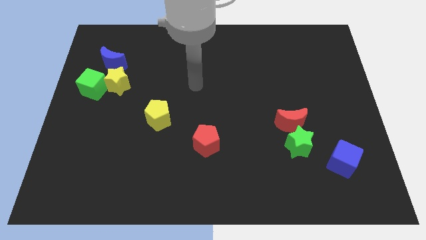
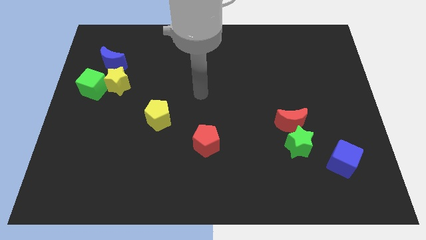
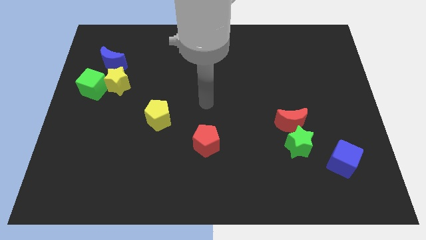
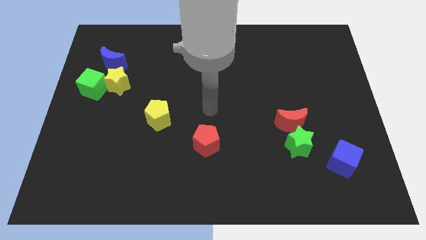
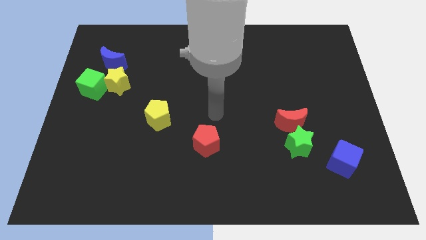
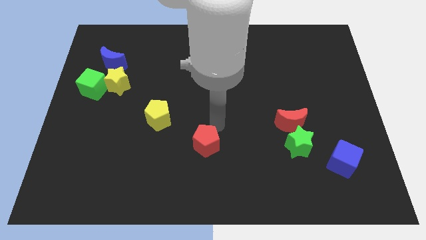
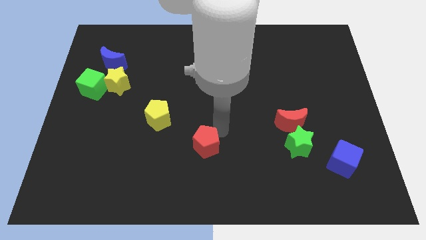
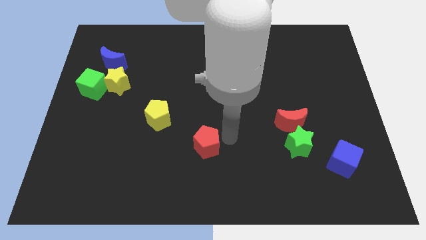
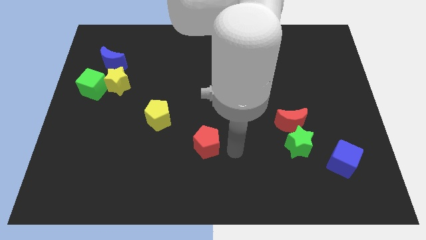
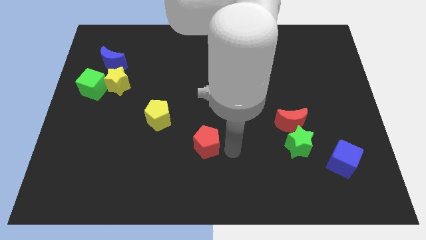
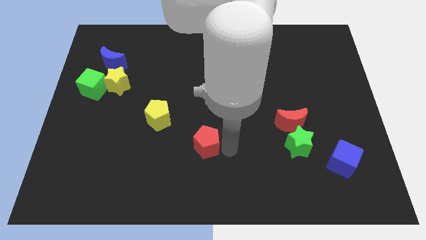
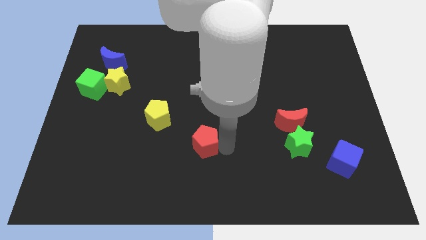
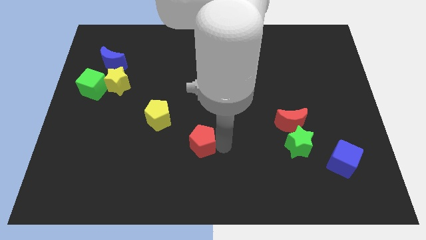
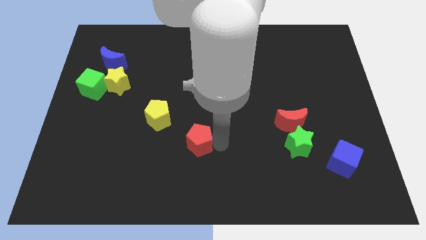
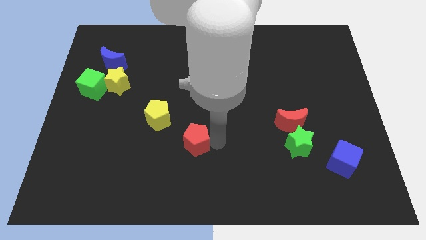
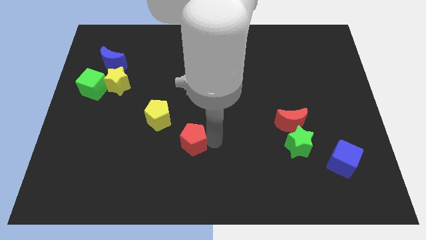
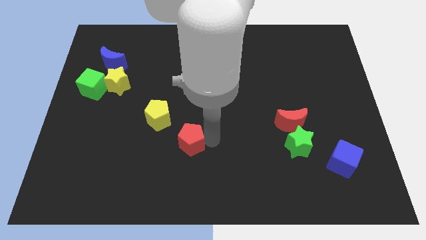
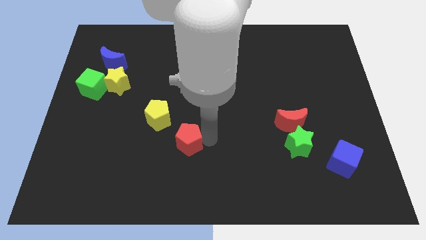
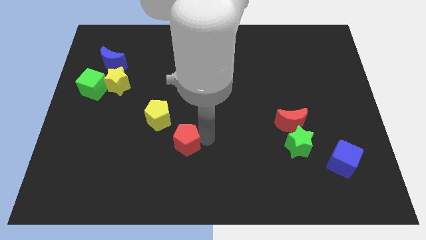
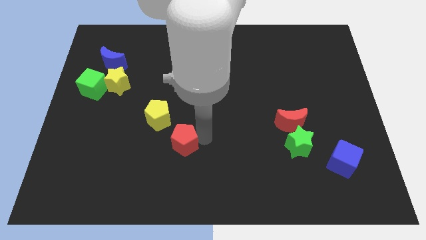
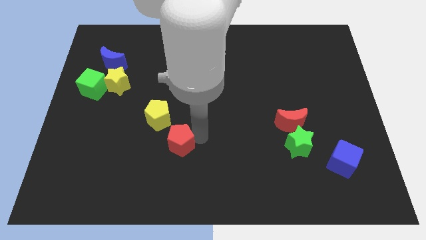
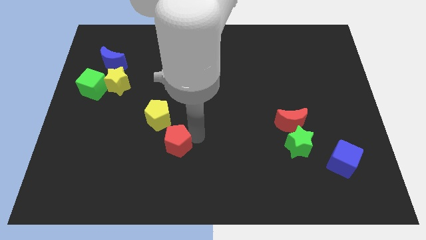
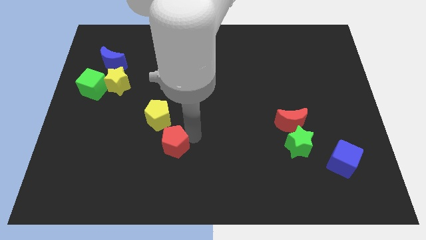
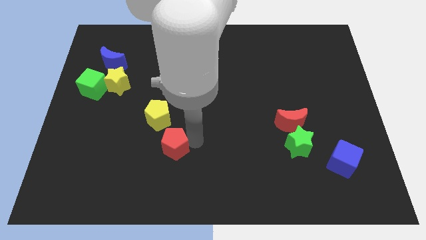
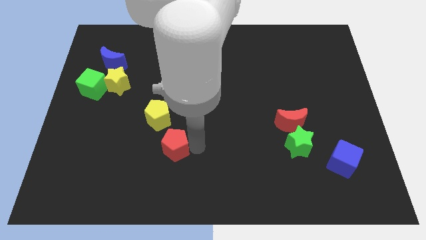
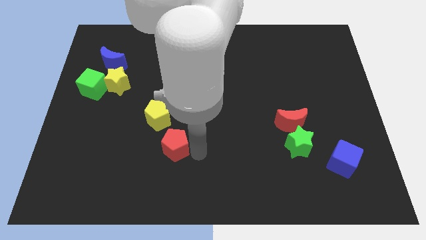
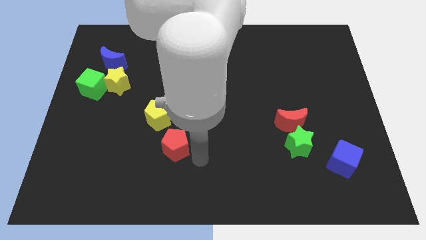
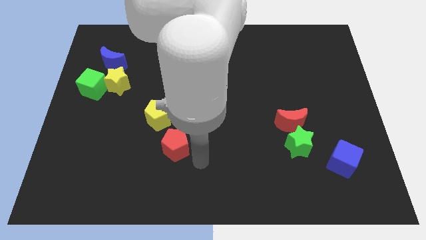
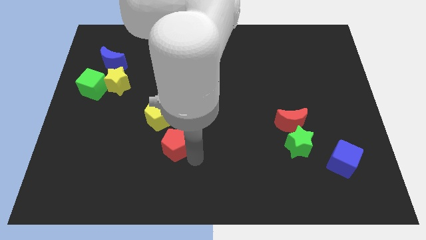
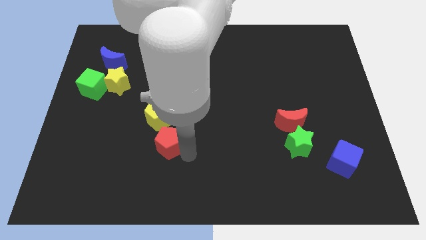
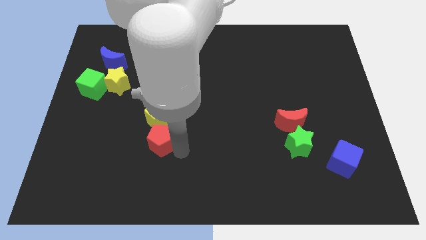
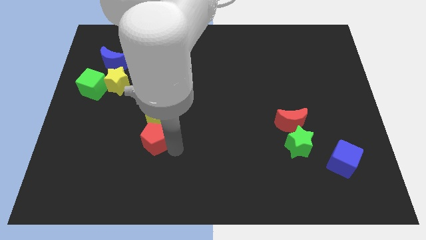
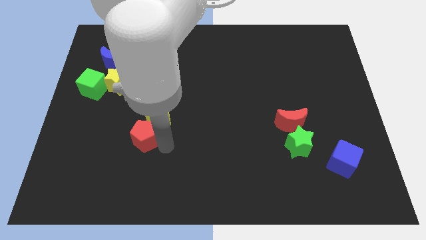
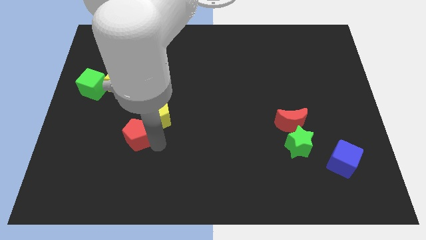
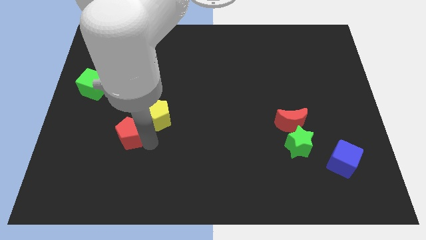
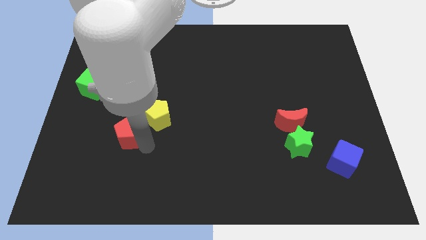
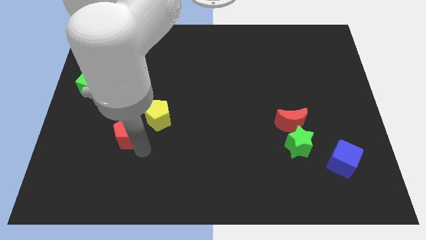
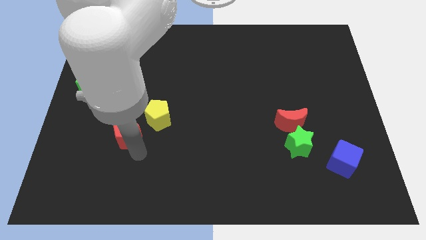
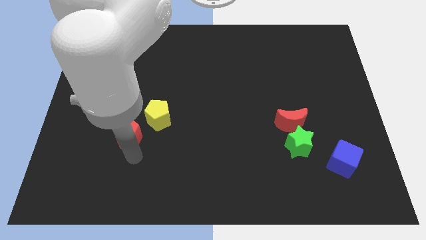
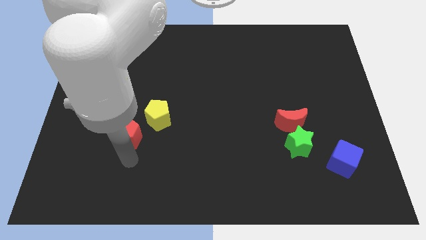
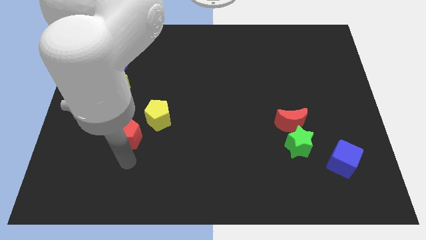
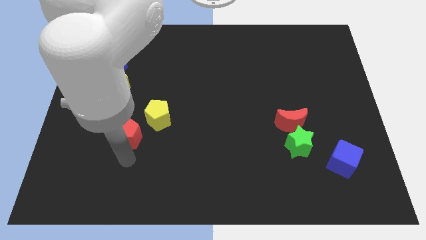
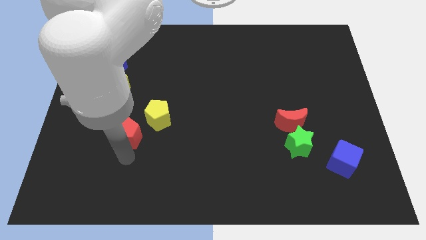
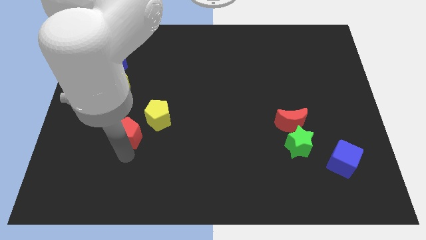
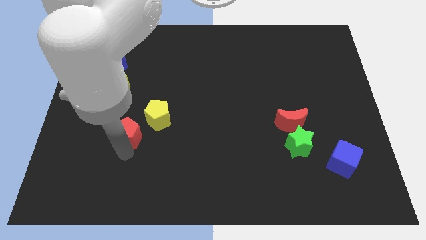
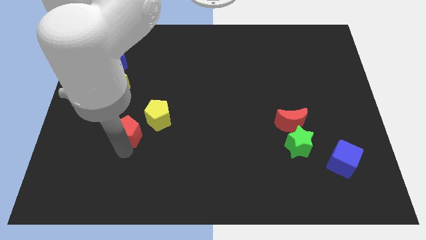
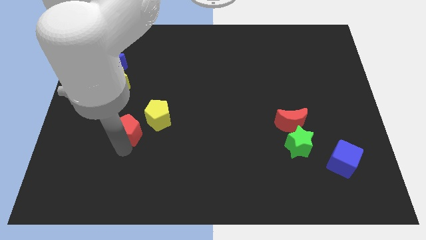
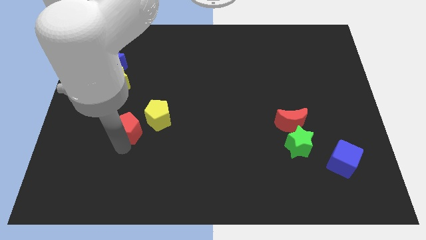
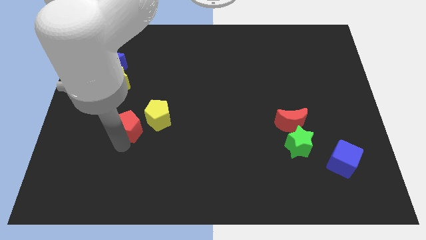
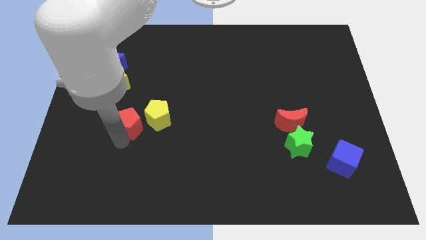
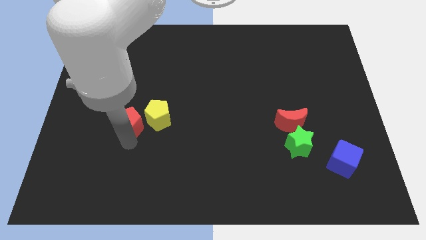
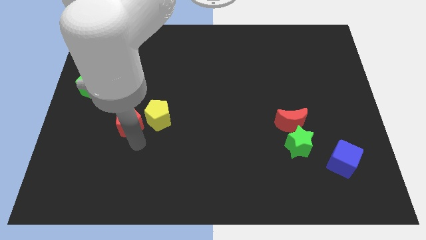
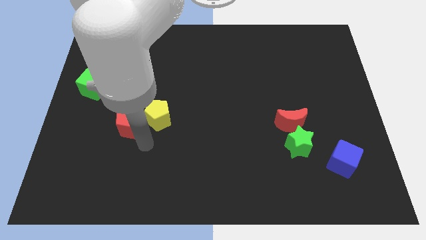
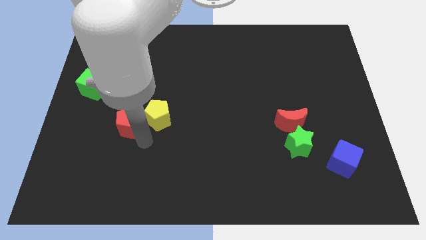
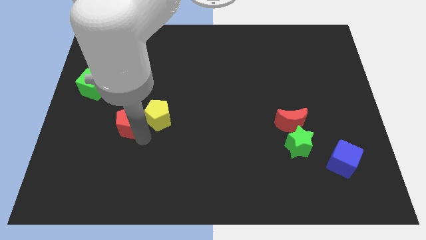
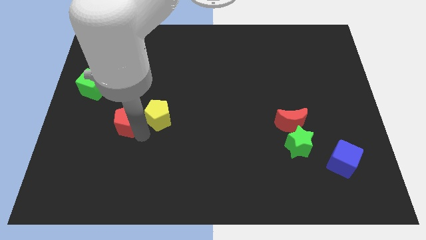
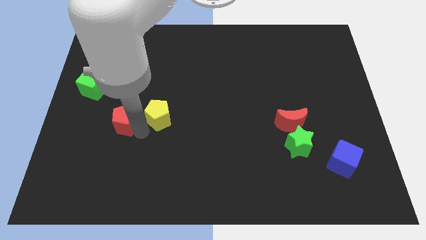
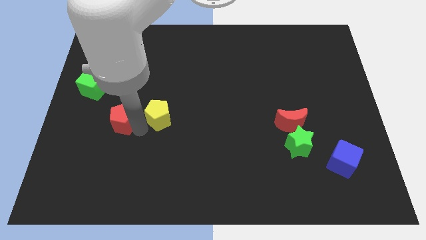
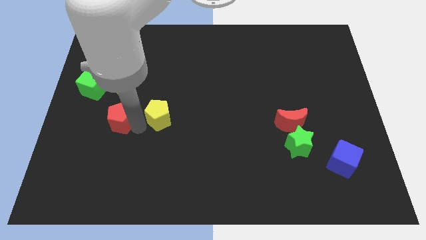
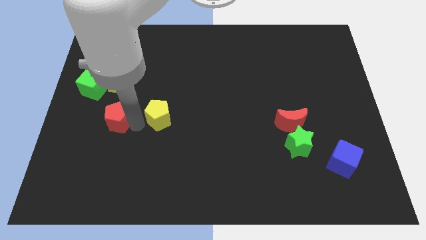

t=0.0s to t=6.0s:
put the red pentagon diagonally down and to the right of the green cube
